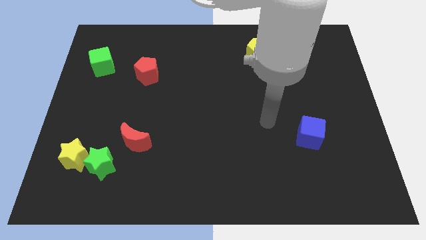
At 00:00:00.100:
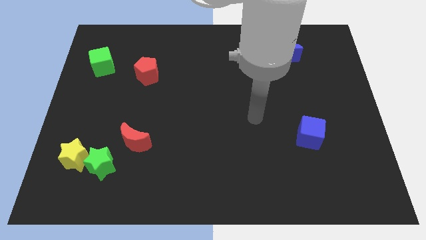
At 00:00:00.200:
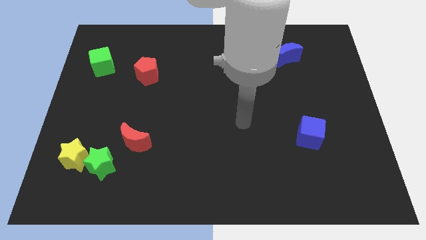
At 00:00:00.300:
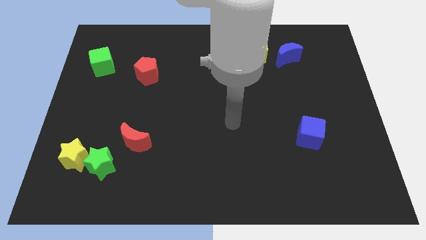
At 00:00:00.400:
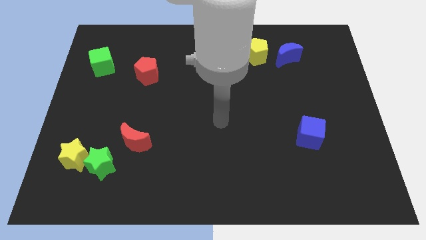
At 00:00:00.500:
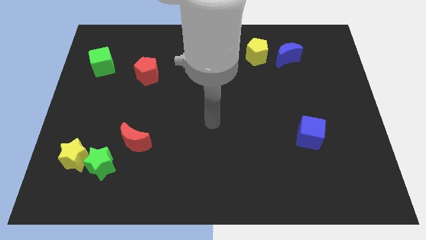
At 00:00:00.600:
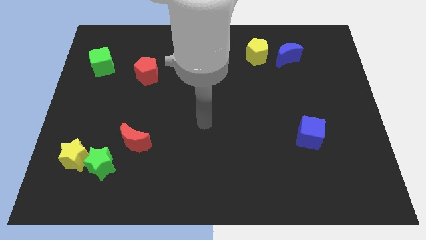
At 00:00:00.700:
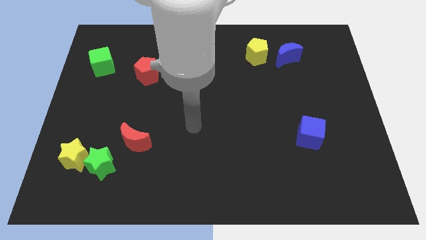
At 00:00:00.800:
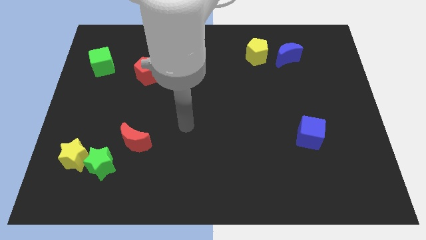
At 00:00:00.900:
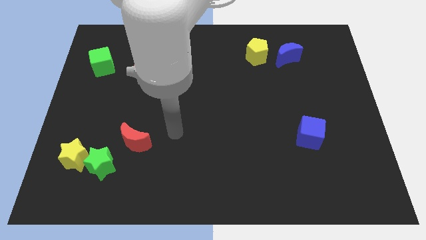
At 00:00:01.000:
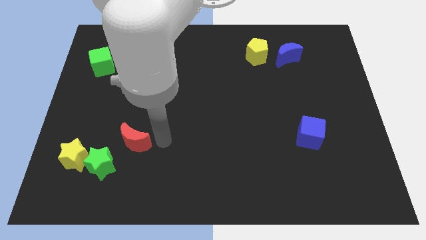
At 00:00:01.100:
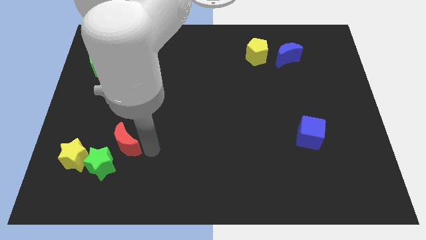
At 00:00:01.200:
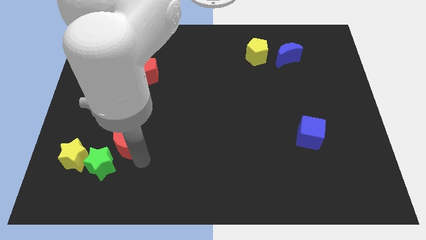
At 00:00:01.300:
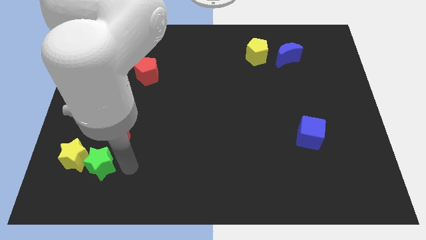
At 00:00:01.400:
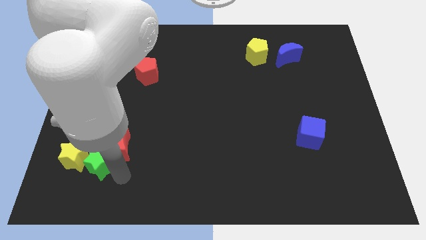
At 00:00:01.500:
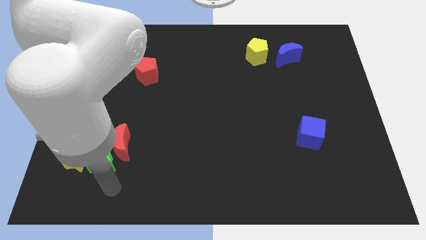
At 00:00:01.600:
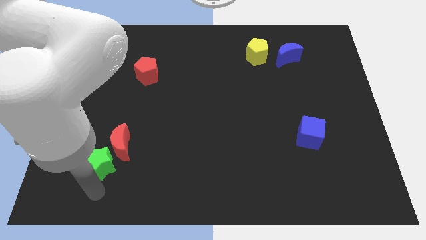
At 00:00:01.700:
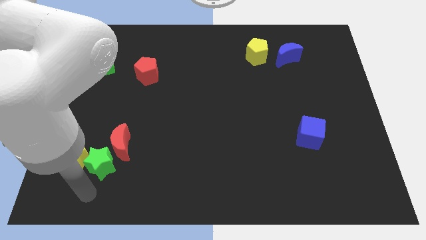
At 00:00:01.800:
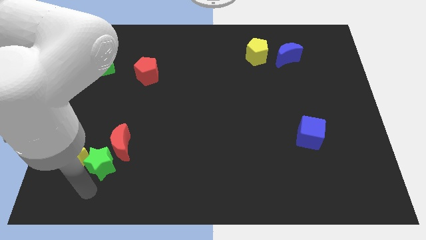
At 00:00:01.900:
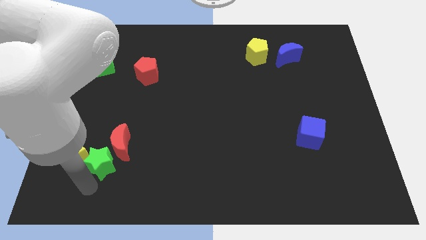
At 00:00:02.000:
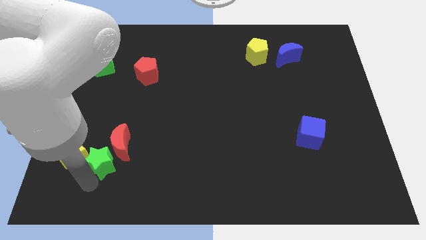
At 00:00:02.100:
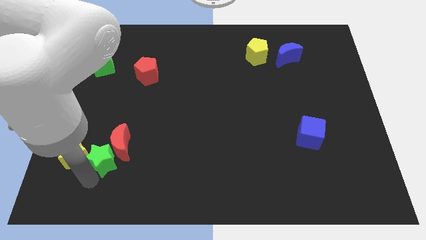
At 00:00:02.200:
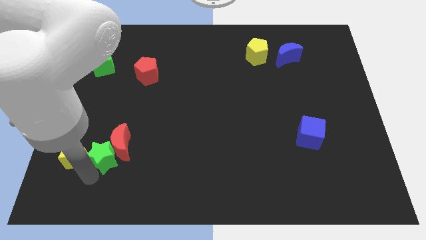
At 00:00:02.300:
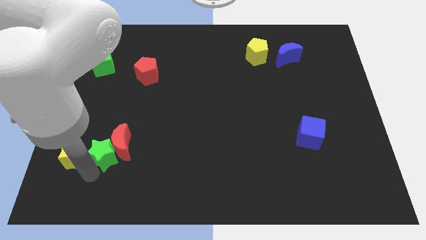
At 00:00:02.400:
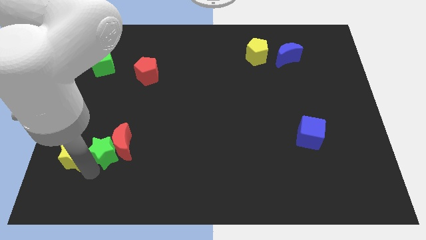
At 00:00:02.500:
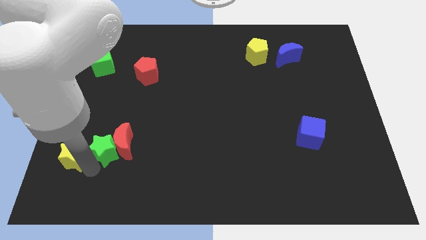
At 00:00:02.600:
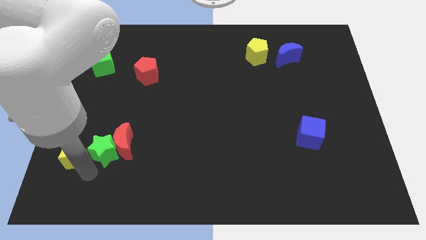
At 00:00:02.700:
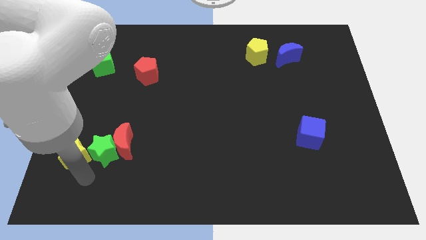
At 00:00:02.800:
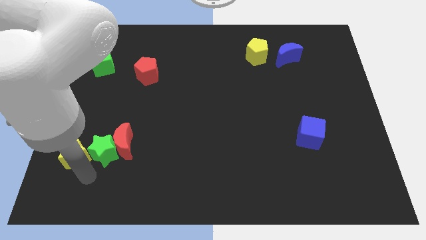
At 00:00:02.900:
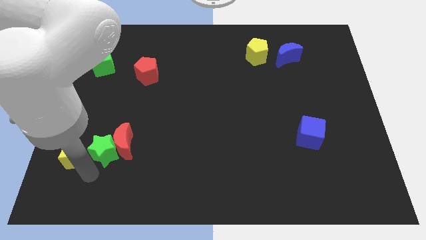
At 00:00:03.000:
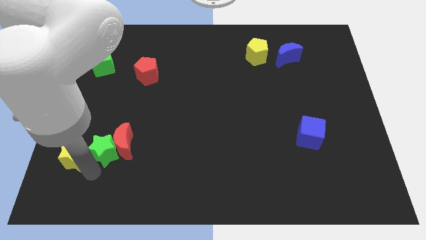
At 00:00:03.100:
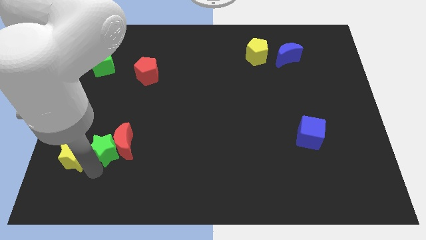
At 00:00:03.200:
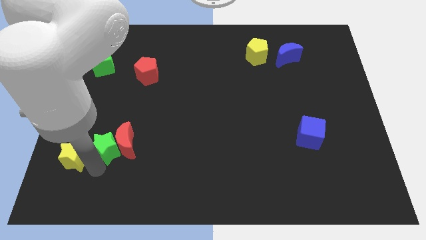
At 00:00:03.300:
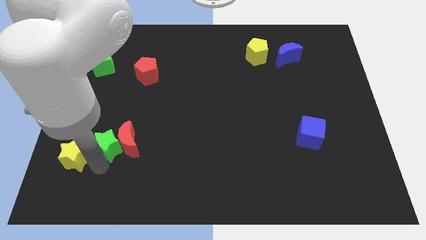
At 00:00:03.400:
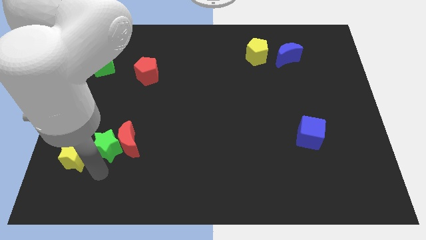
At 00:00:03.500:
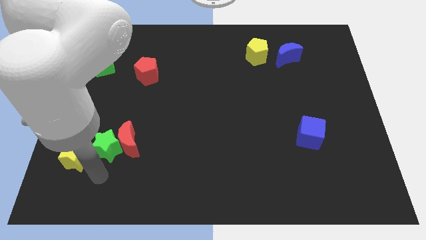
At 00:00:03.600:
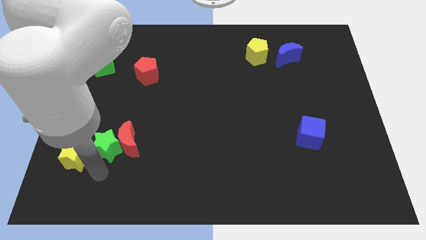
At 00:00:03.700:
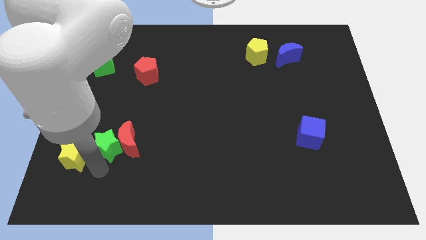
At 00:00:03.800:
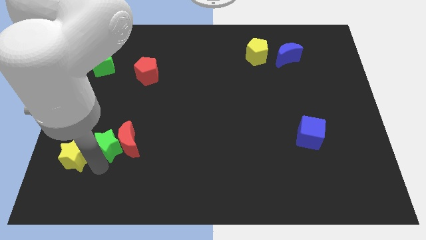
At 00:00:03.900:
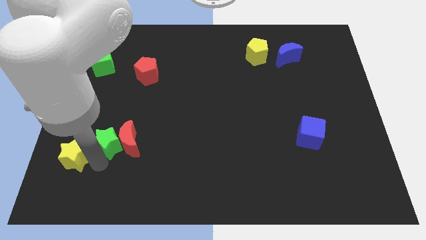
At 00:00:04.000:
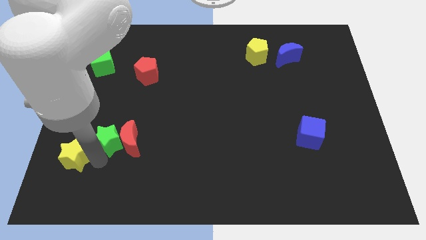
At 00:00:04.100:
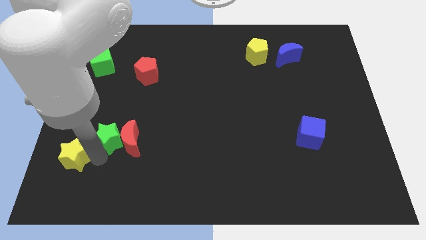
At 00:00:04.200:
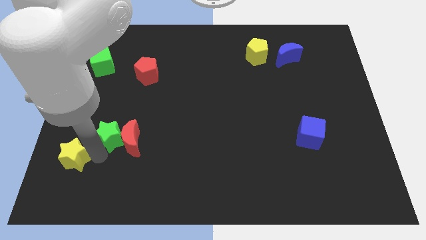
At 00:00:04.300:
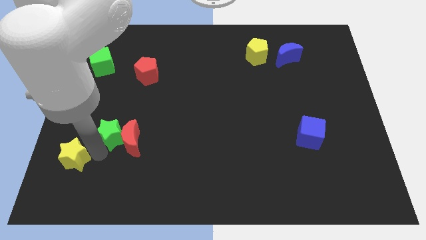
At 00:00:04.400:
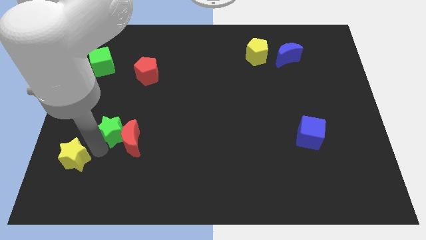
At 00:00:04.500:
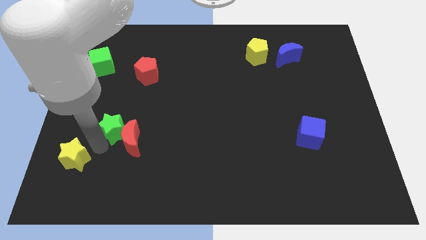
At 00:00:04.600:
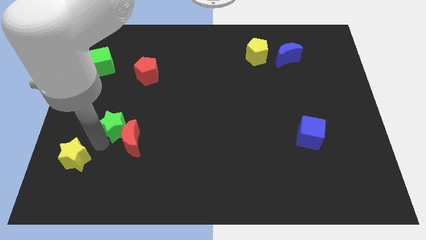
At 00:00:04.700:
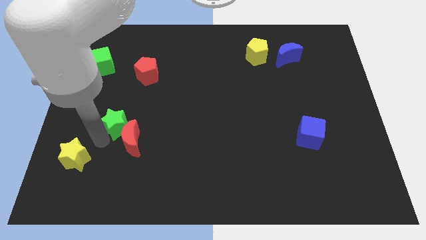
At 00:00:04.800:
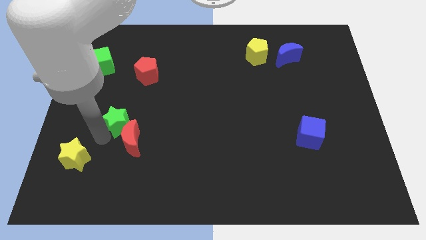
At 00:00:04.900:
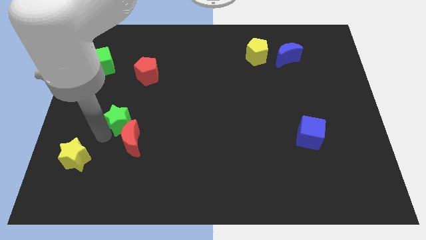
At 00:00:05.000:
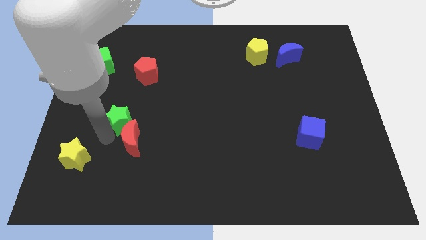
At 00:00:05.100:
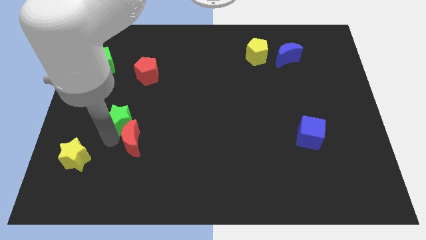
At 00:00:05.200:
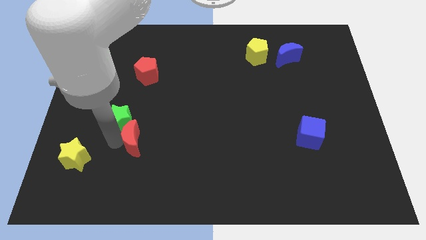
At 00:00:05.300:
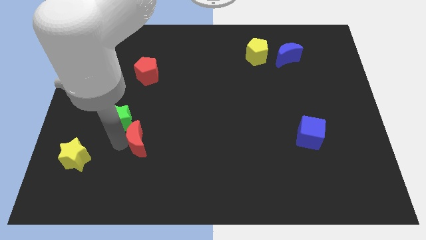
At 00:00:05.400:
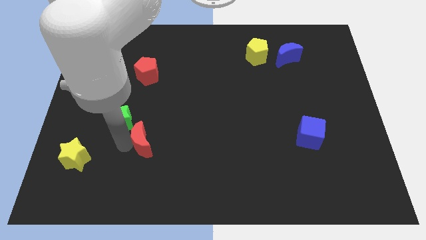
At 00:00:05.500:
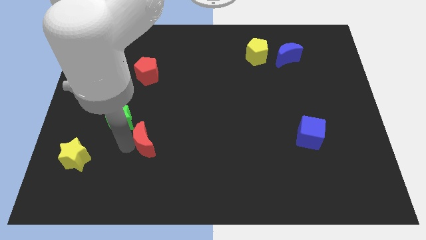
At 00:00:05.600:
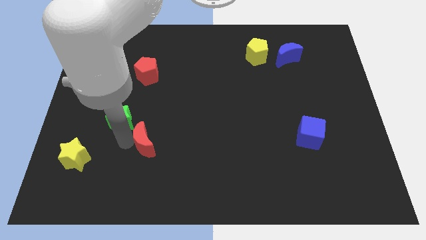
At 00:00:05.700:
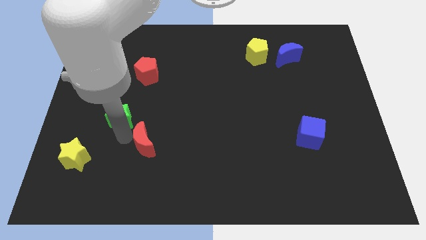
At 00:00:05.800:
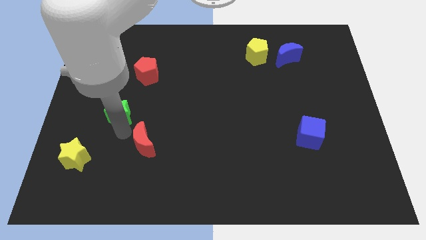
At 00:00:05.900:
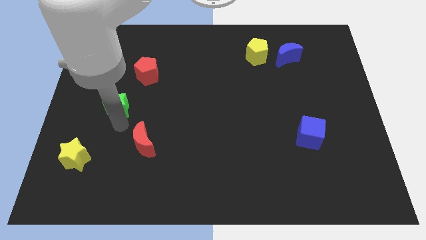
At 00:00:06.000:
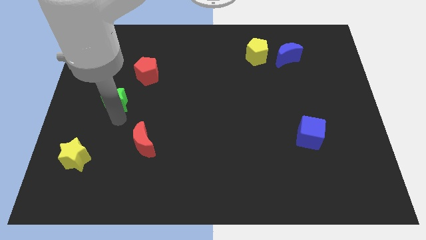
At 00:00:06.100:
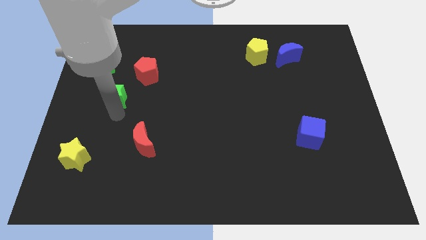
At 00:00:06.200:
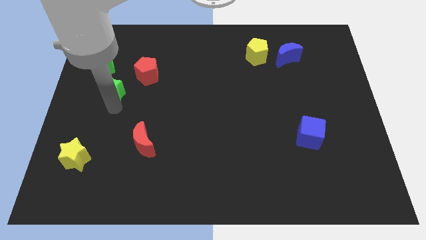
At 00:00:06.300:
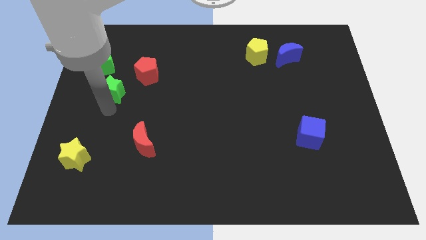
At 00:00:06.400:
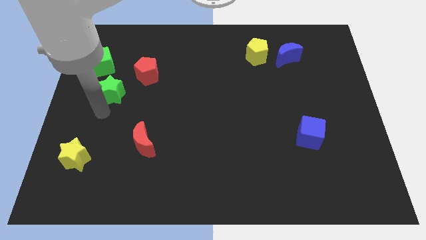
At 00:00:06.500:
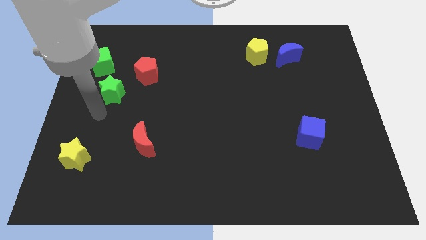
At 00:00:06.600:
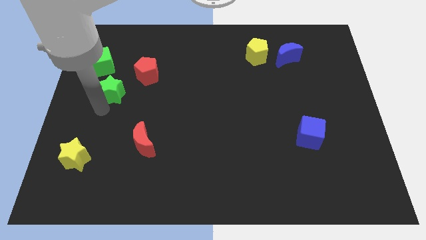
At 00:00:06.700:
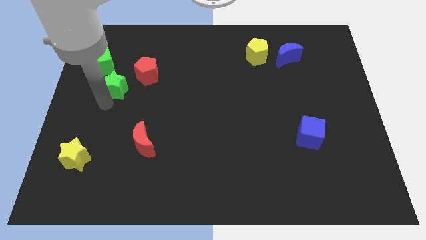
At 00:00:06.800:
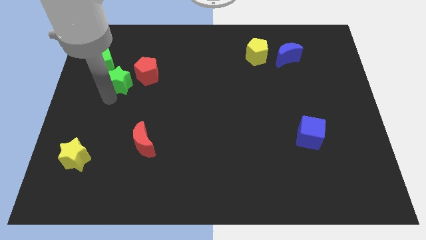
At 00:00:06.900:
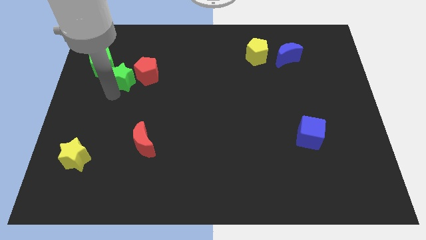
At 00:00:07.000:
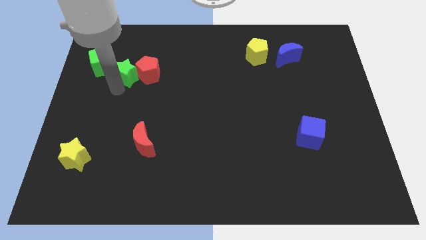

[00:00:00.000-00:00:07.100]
push the green star diagonally up and to the left of the red pentagon

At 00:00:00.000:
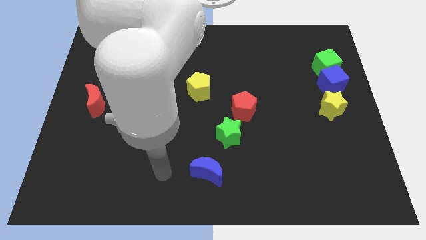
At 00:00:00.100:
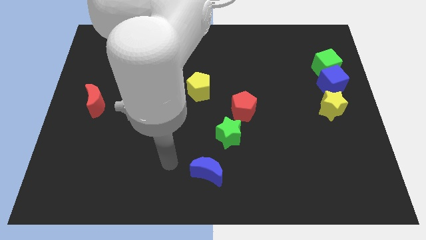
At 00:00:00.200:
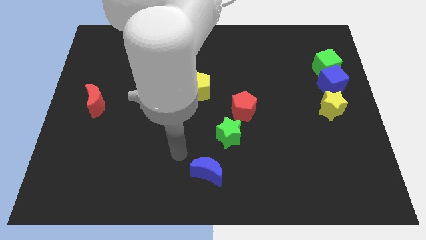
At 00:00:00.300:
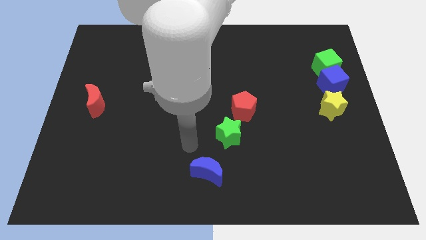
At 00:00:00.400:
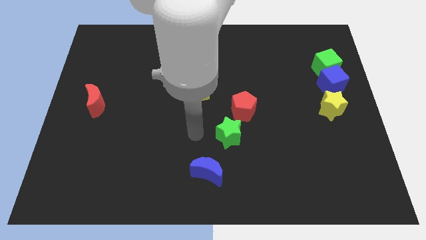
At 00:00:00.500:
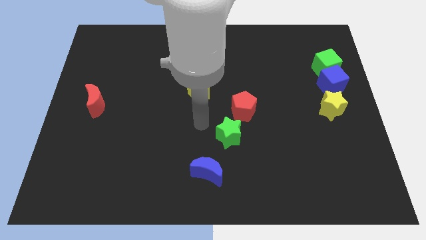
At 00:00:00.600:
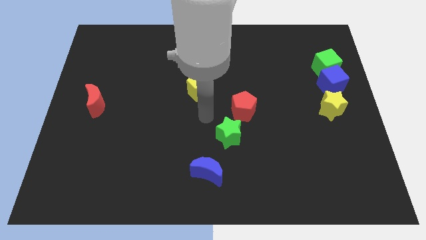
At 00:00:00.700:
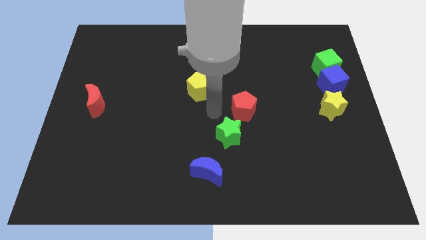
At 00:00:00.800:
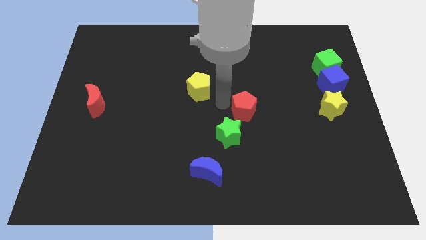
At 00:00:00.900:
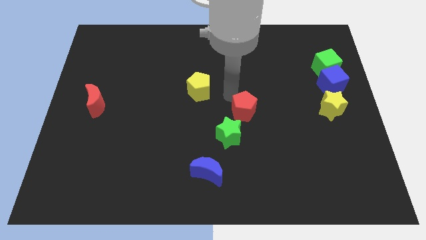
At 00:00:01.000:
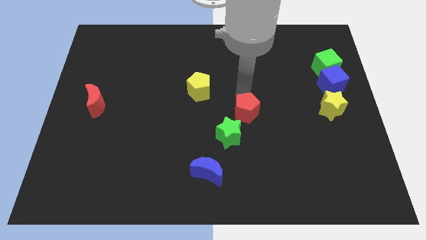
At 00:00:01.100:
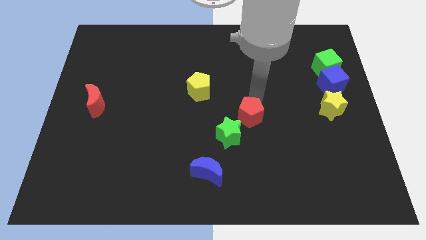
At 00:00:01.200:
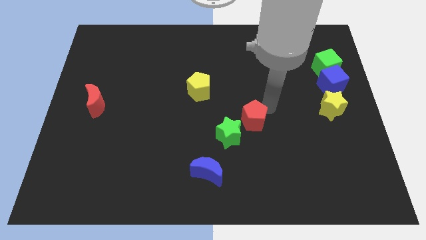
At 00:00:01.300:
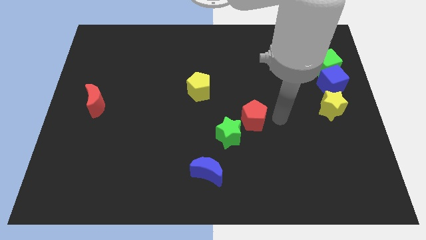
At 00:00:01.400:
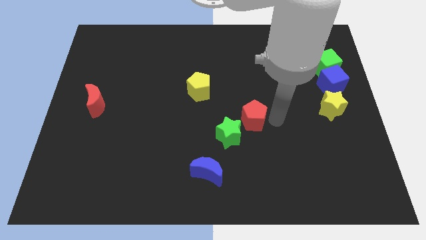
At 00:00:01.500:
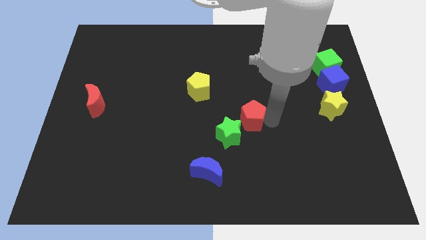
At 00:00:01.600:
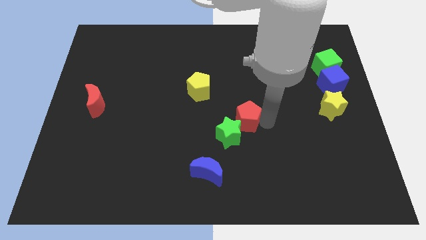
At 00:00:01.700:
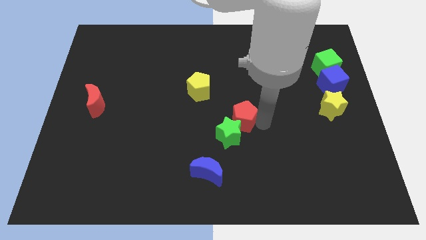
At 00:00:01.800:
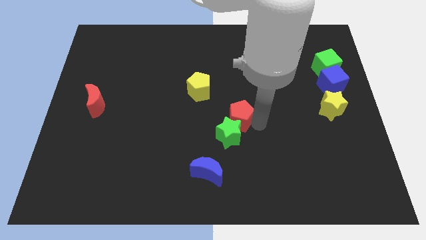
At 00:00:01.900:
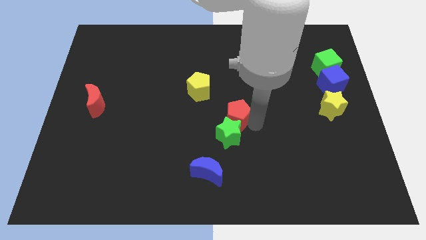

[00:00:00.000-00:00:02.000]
slide the red pentagon to the top left of the green star
